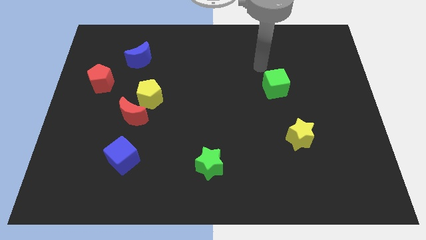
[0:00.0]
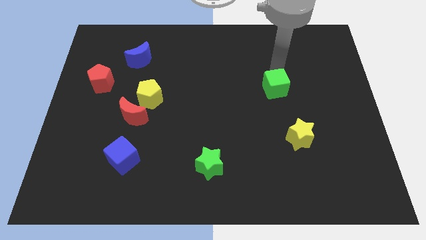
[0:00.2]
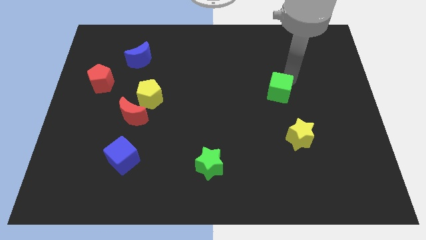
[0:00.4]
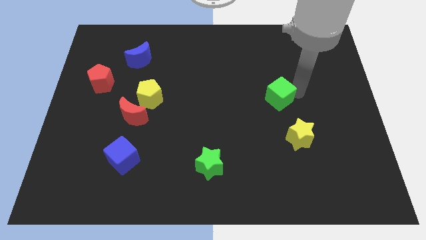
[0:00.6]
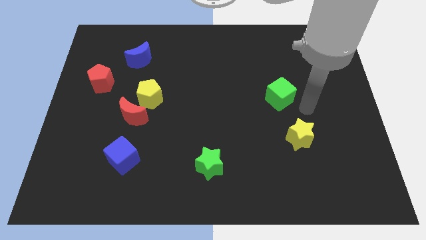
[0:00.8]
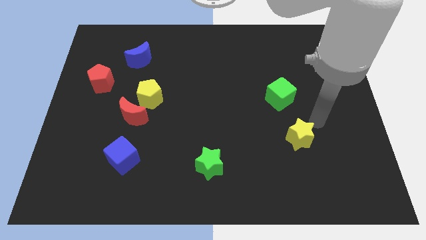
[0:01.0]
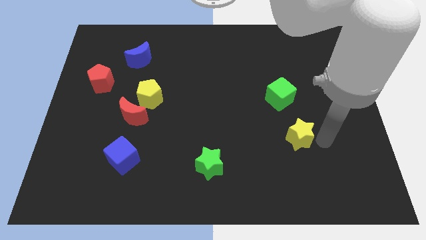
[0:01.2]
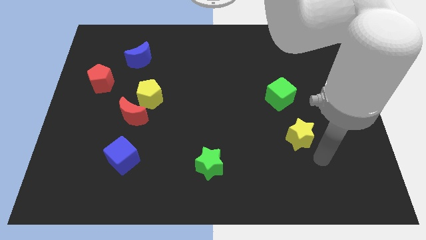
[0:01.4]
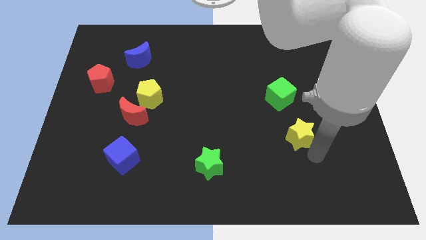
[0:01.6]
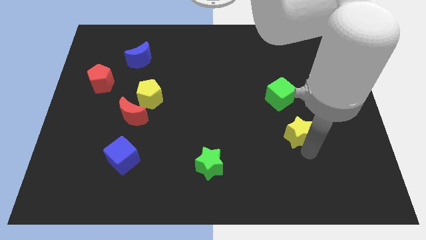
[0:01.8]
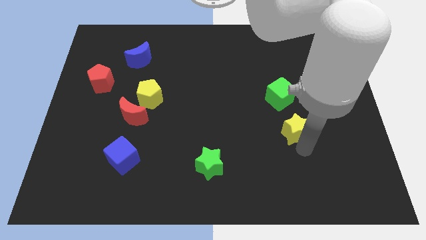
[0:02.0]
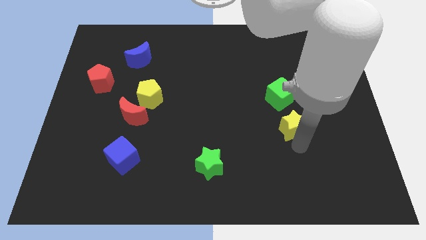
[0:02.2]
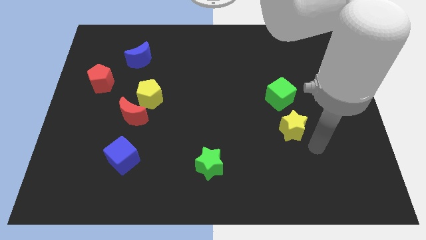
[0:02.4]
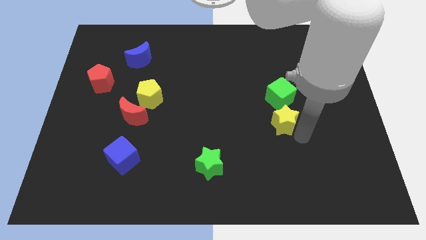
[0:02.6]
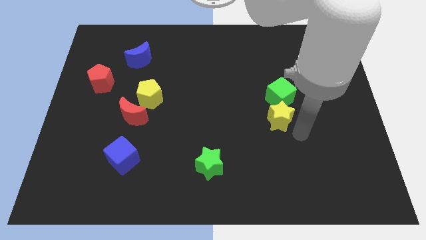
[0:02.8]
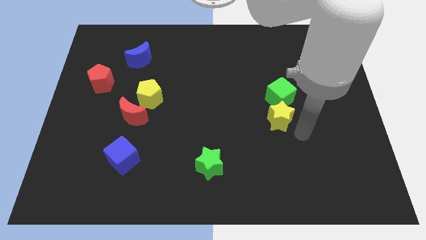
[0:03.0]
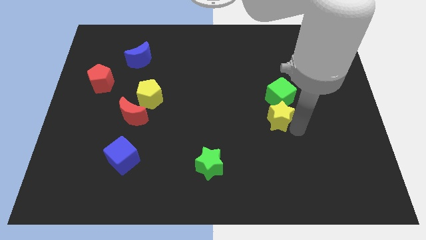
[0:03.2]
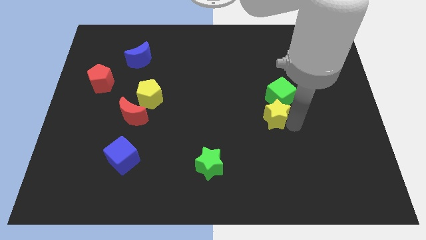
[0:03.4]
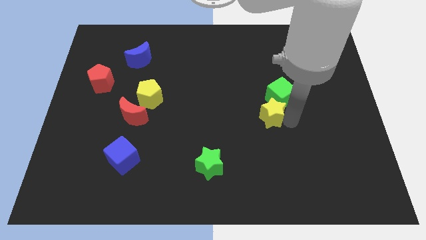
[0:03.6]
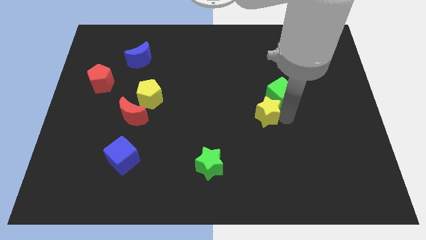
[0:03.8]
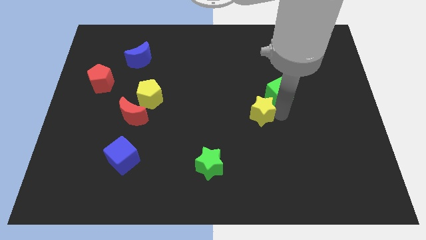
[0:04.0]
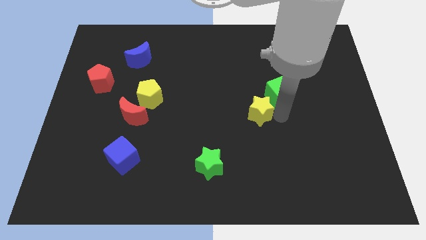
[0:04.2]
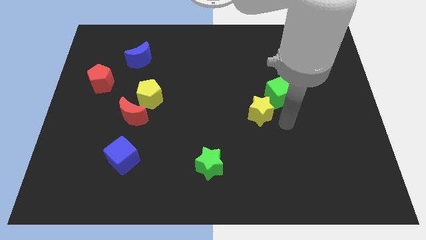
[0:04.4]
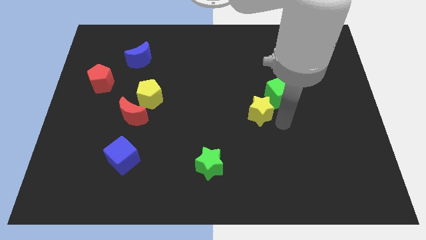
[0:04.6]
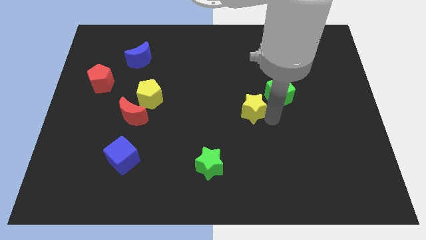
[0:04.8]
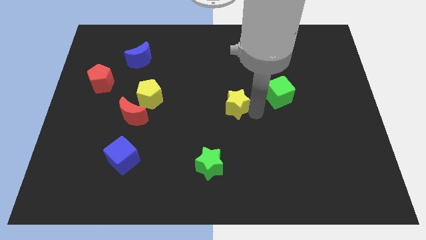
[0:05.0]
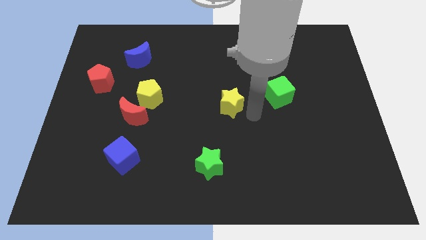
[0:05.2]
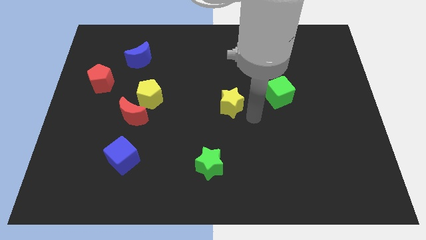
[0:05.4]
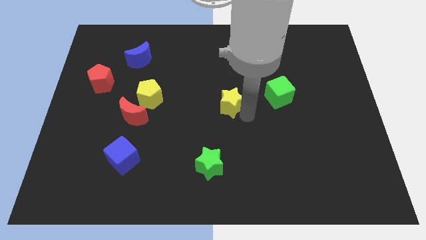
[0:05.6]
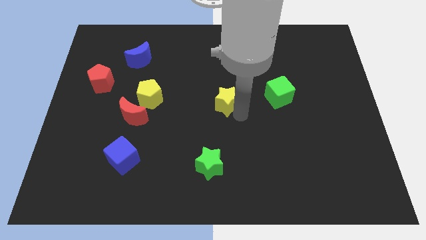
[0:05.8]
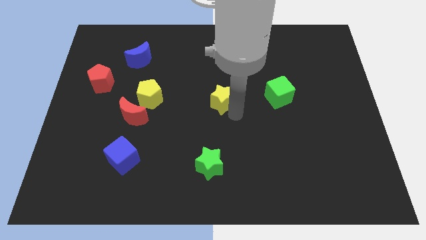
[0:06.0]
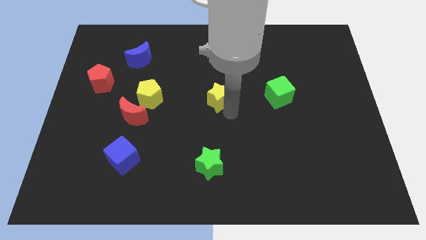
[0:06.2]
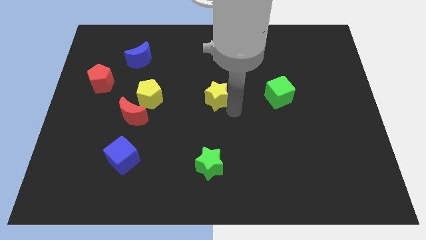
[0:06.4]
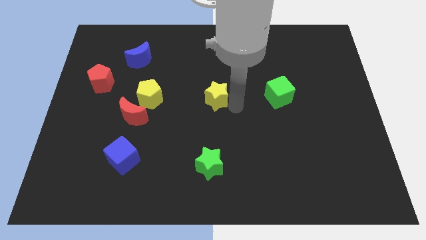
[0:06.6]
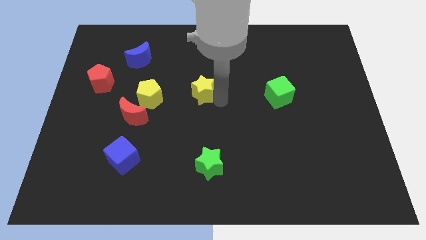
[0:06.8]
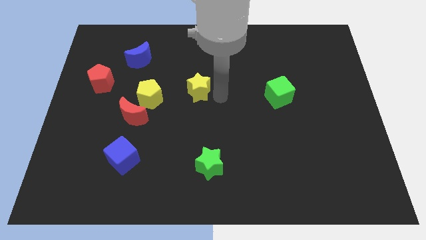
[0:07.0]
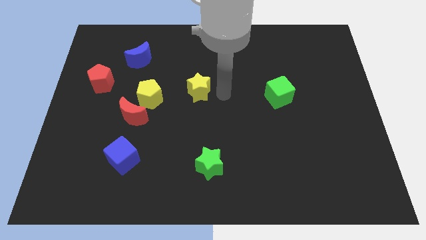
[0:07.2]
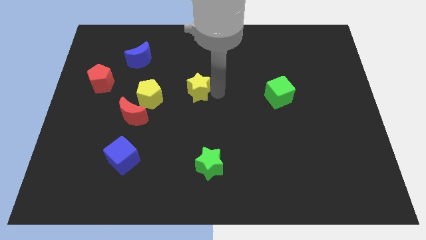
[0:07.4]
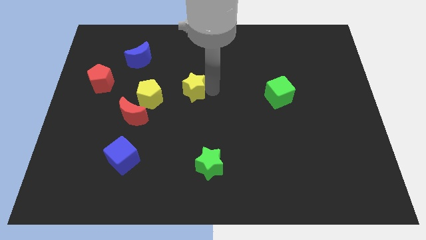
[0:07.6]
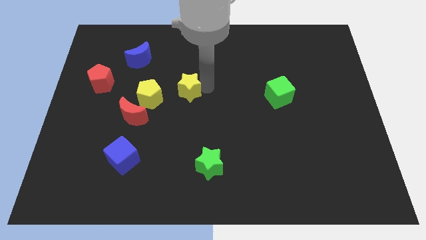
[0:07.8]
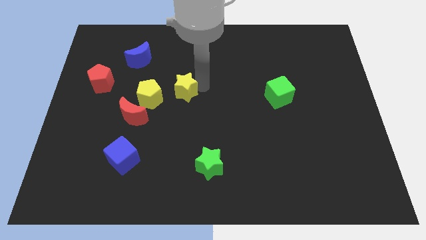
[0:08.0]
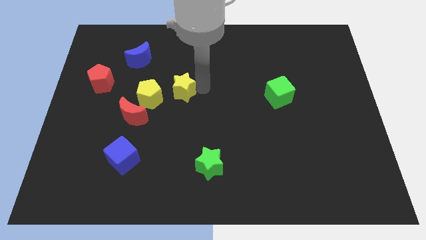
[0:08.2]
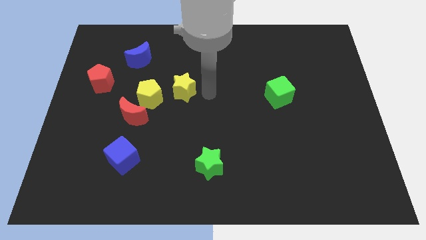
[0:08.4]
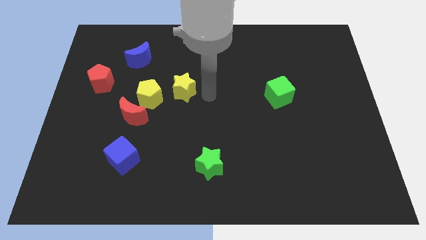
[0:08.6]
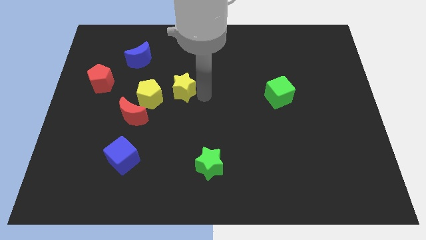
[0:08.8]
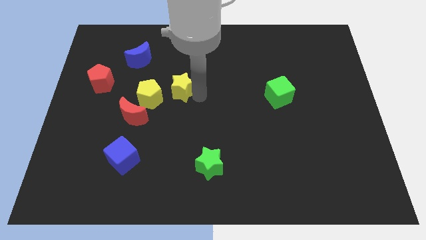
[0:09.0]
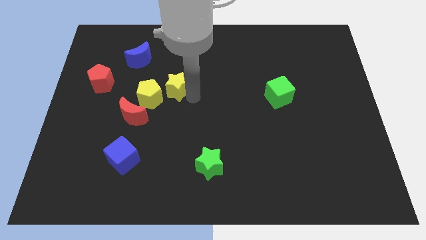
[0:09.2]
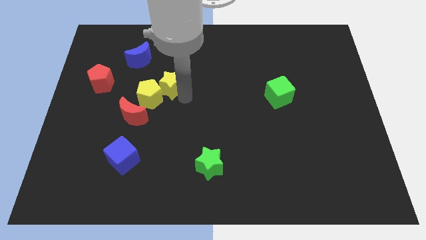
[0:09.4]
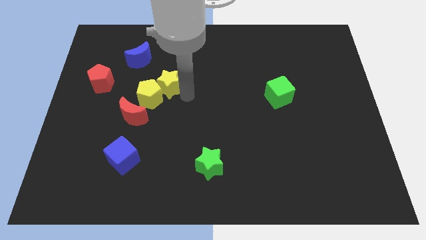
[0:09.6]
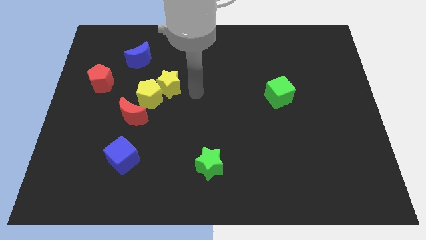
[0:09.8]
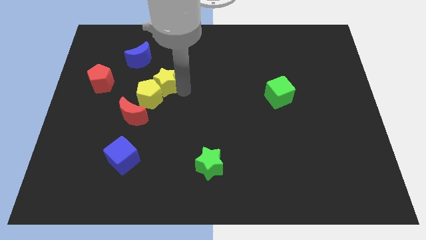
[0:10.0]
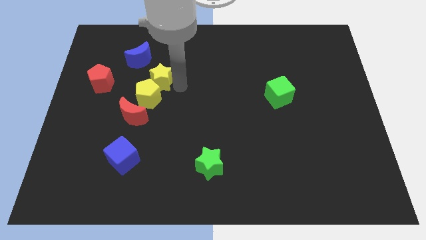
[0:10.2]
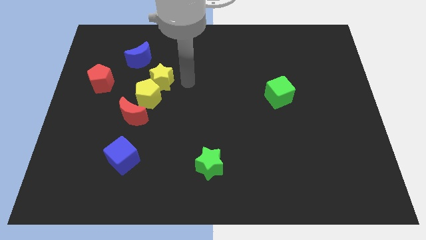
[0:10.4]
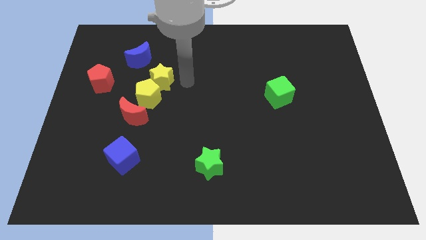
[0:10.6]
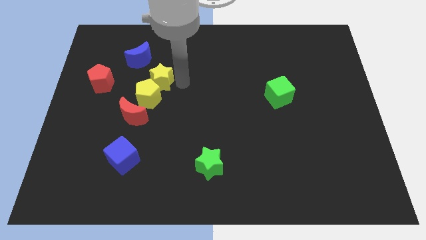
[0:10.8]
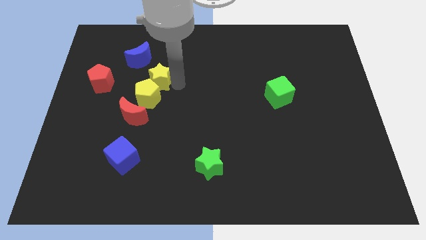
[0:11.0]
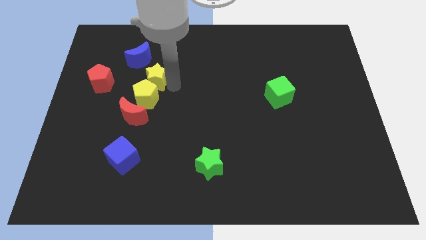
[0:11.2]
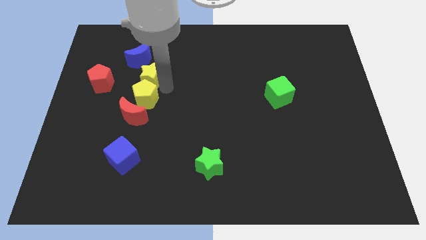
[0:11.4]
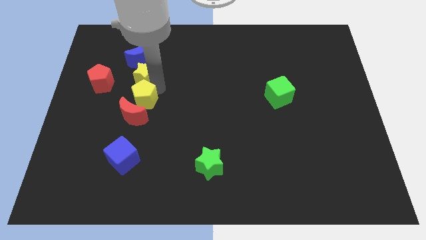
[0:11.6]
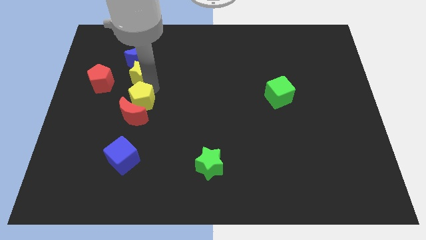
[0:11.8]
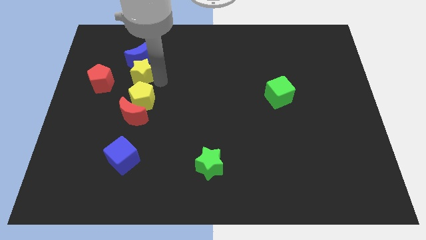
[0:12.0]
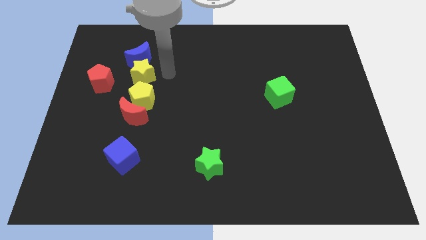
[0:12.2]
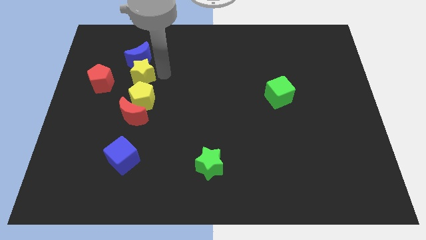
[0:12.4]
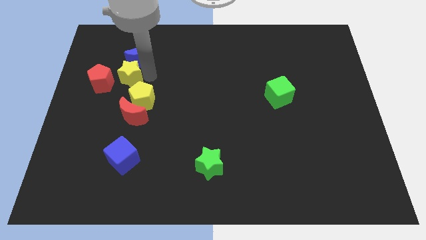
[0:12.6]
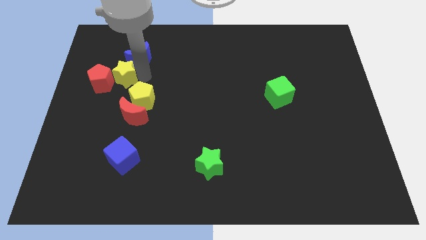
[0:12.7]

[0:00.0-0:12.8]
put the yellow star to the red pentagon

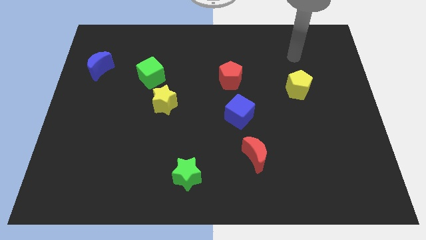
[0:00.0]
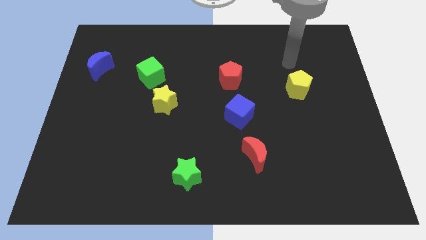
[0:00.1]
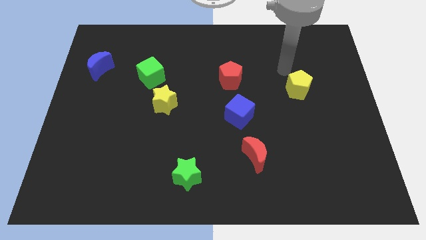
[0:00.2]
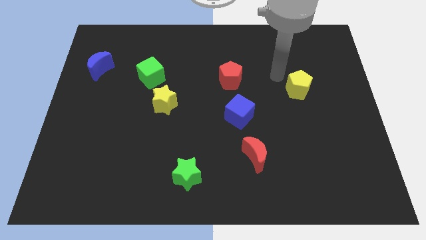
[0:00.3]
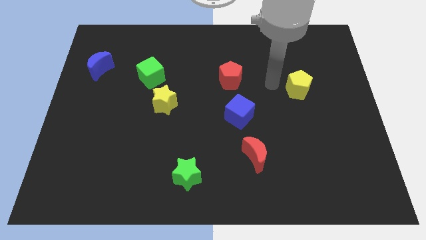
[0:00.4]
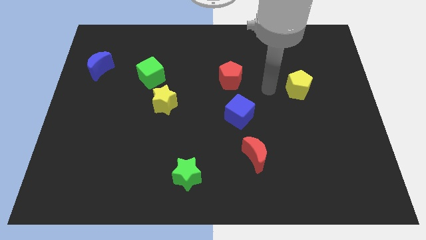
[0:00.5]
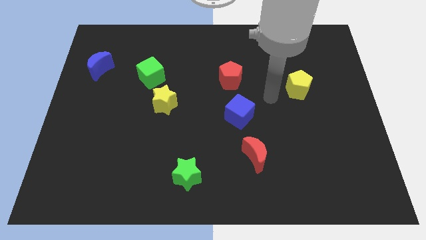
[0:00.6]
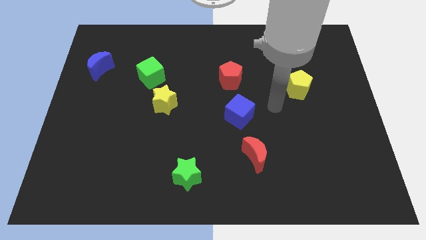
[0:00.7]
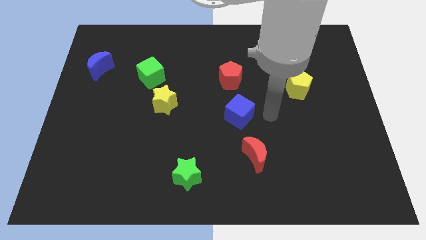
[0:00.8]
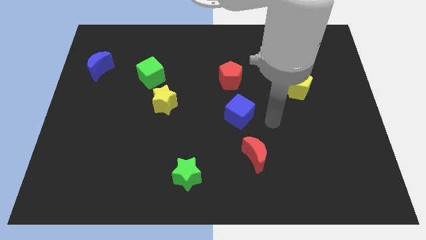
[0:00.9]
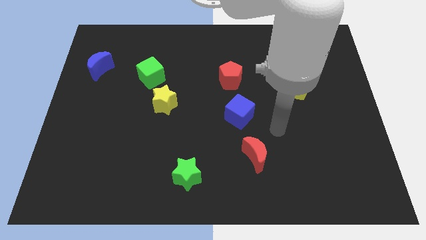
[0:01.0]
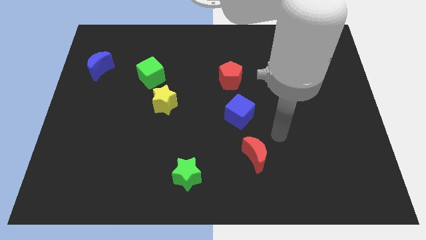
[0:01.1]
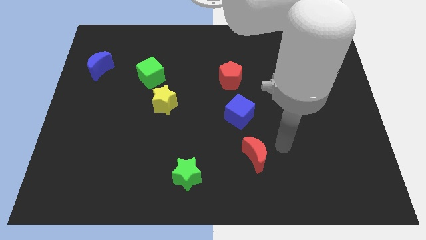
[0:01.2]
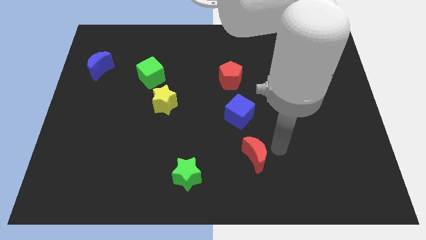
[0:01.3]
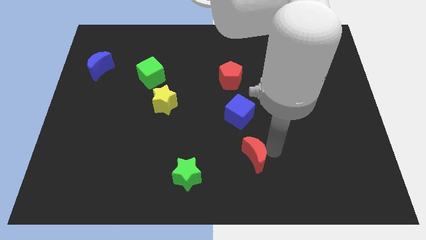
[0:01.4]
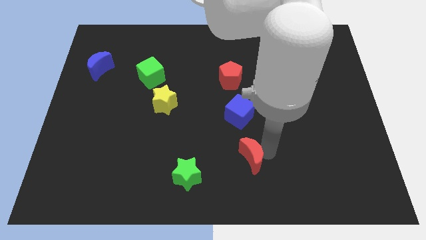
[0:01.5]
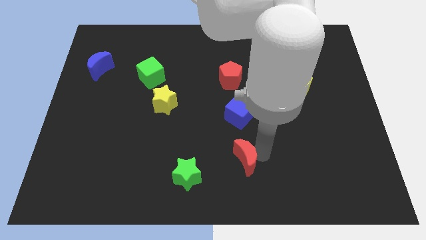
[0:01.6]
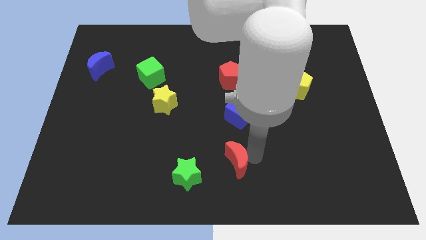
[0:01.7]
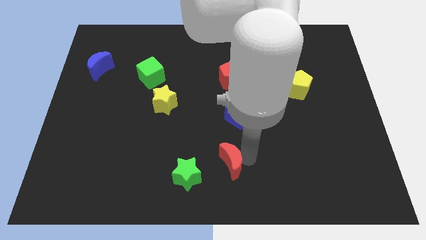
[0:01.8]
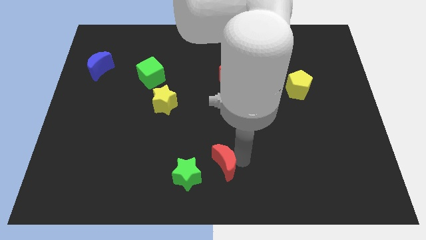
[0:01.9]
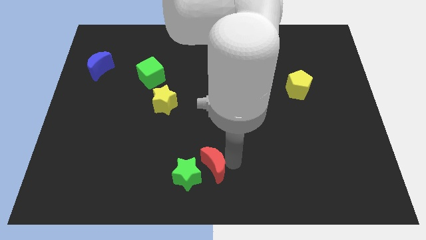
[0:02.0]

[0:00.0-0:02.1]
move the red moon close to the green star
